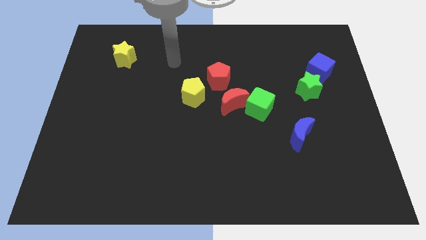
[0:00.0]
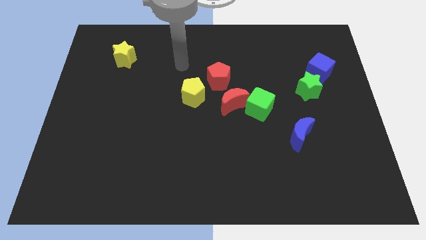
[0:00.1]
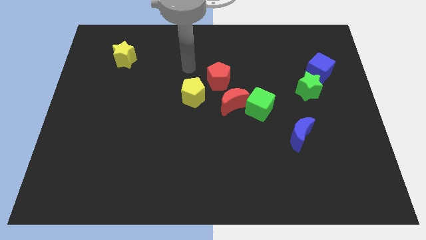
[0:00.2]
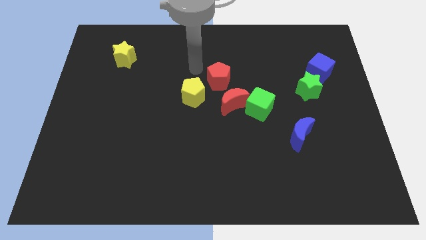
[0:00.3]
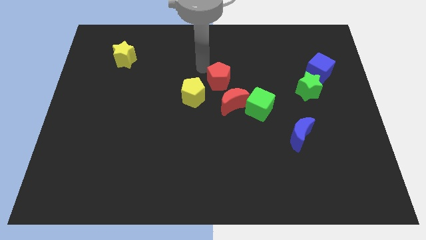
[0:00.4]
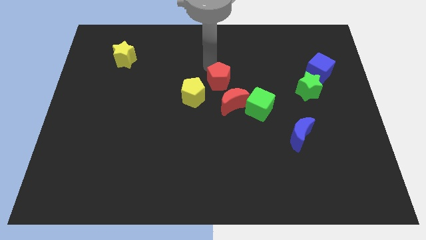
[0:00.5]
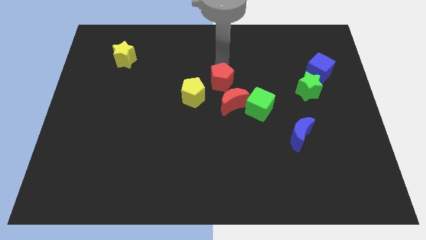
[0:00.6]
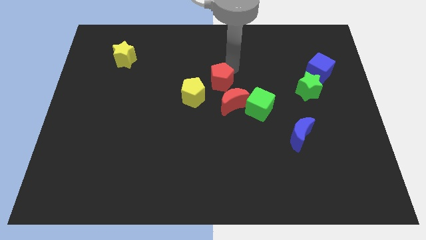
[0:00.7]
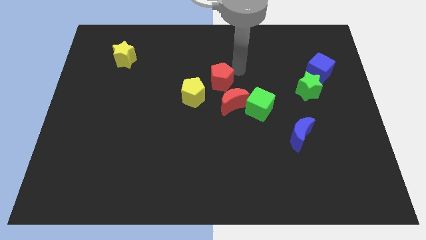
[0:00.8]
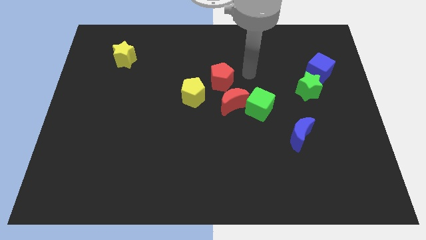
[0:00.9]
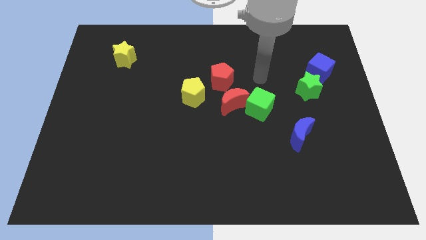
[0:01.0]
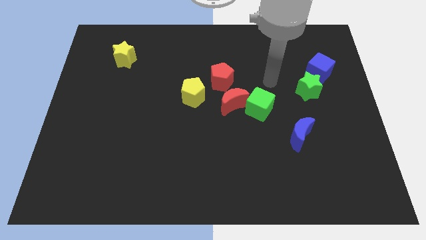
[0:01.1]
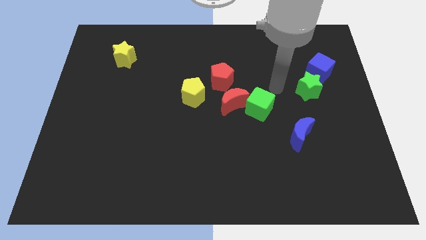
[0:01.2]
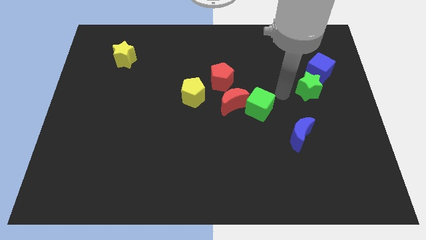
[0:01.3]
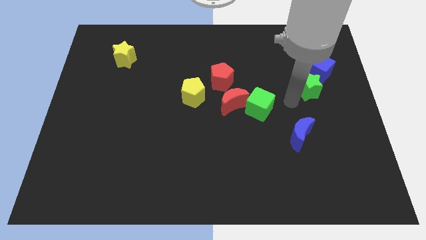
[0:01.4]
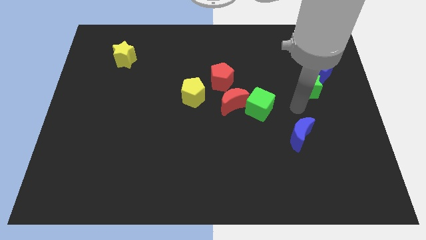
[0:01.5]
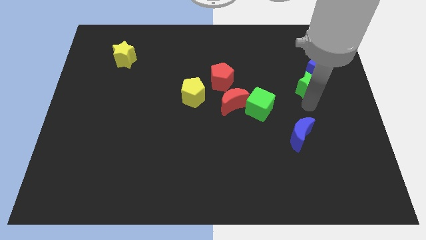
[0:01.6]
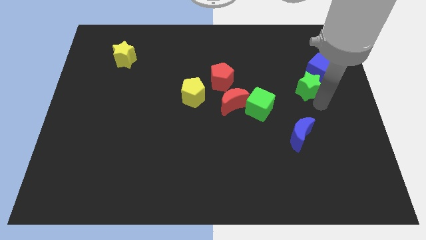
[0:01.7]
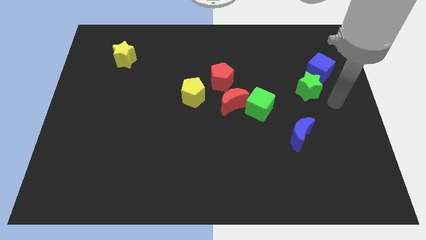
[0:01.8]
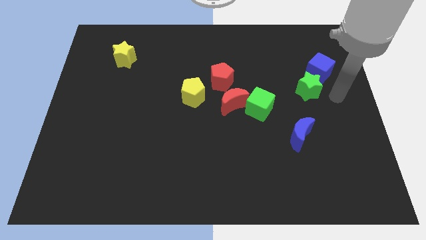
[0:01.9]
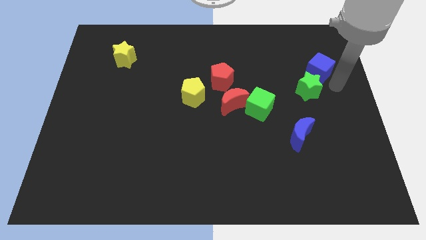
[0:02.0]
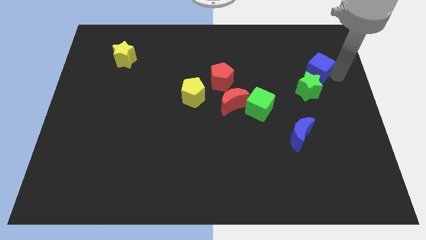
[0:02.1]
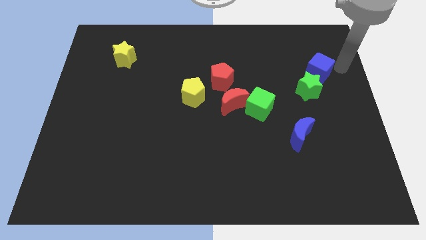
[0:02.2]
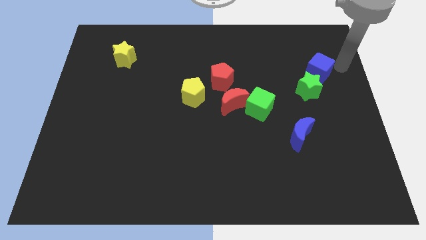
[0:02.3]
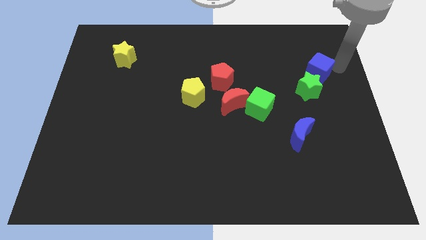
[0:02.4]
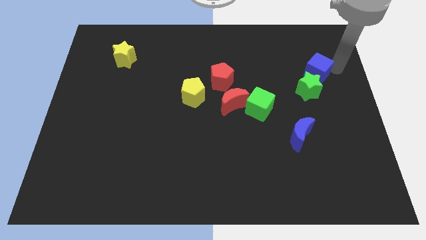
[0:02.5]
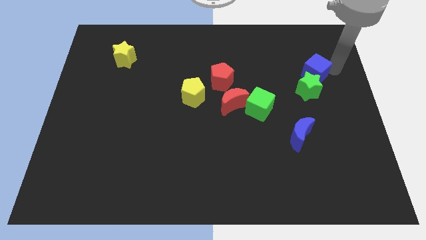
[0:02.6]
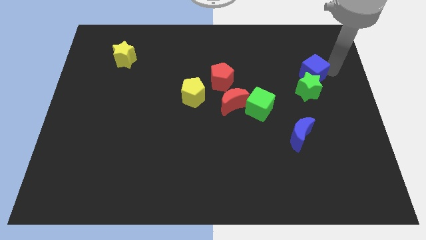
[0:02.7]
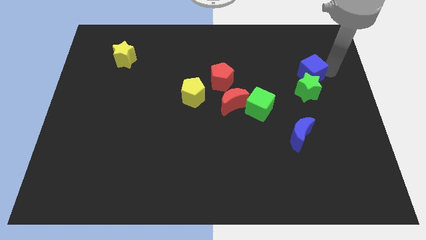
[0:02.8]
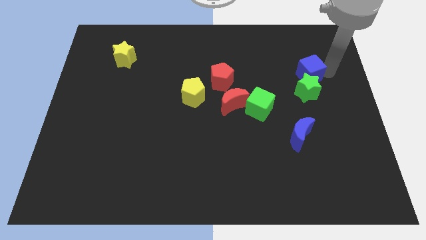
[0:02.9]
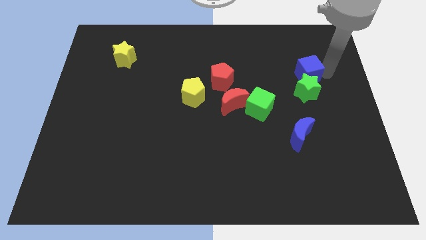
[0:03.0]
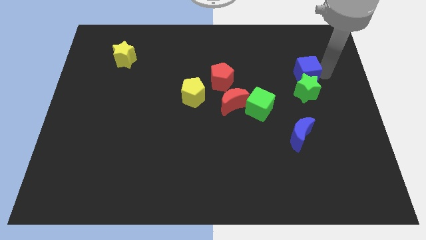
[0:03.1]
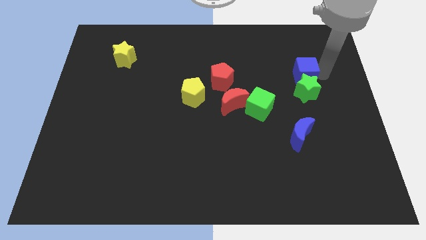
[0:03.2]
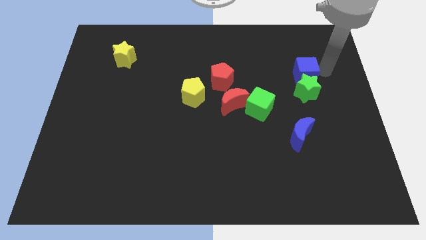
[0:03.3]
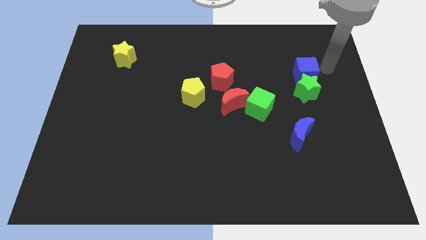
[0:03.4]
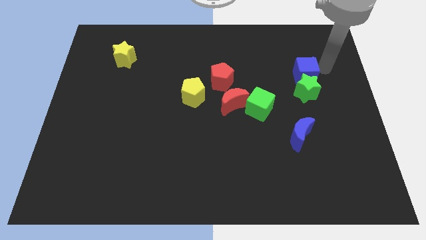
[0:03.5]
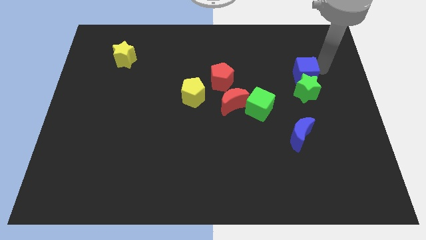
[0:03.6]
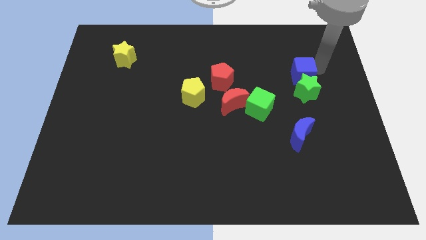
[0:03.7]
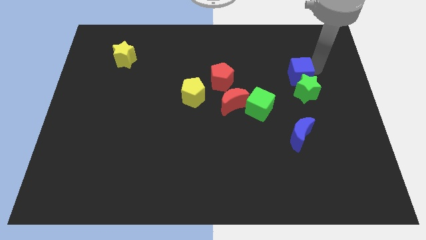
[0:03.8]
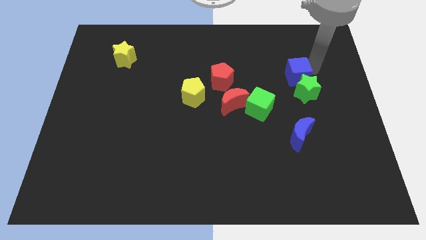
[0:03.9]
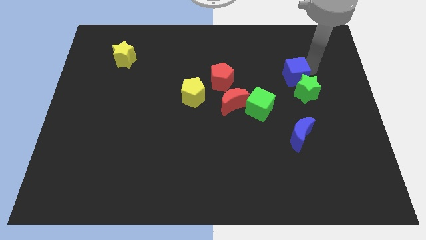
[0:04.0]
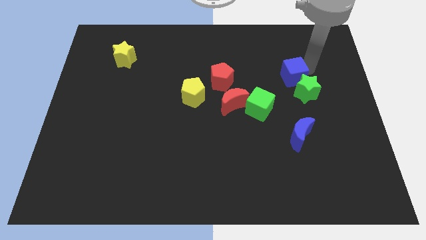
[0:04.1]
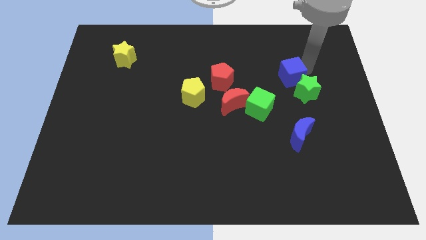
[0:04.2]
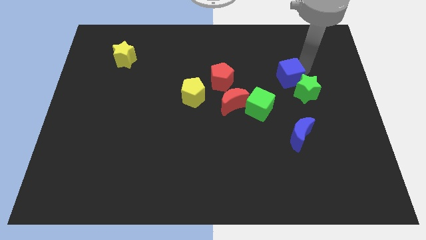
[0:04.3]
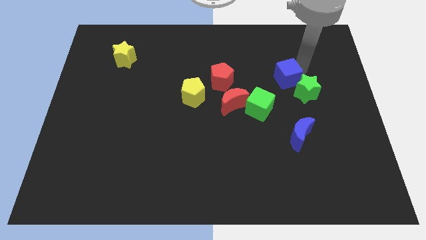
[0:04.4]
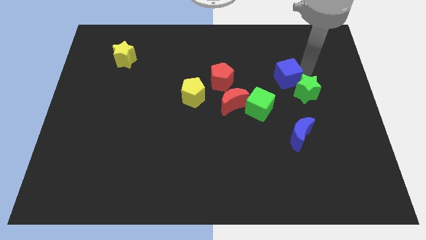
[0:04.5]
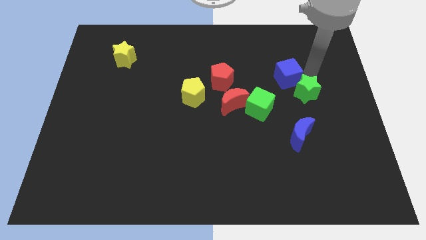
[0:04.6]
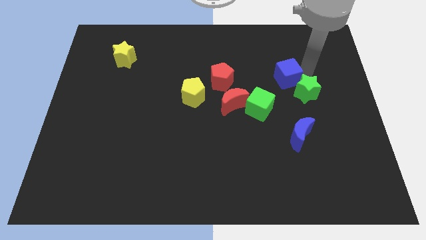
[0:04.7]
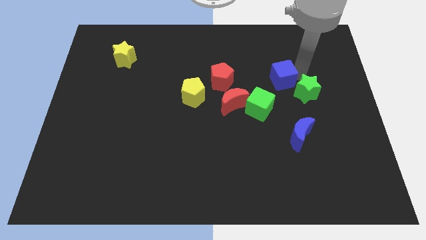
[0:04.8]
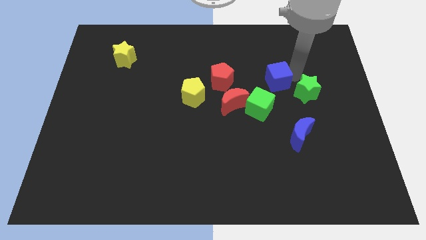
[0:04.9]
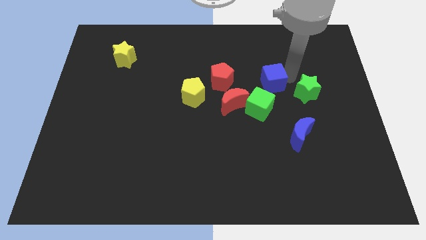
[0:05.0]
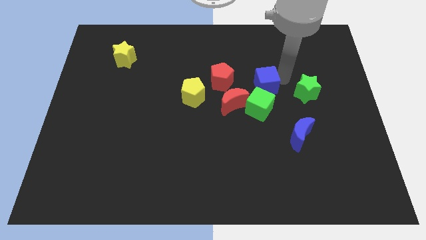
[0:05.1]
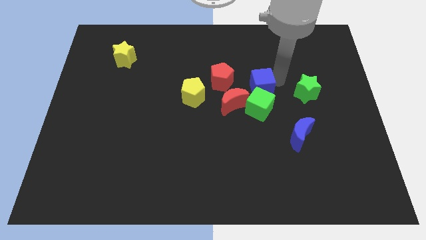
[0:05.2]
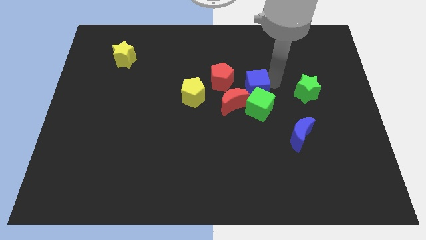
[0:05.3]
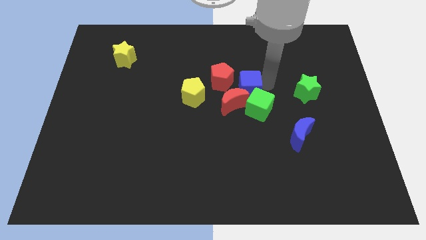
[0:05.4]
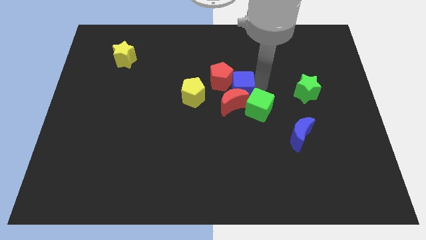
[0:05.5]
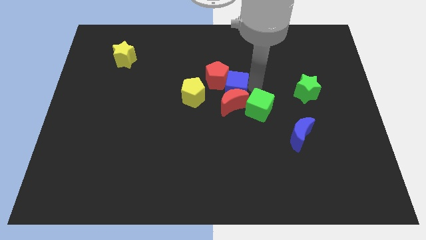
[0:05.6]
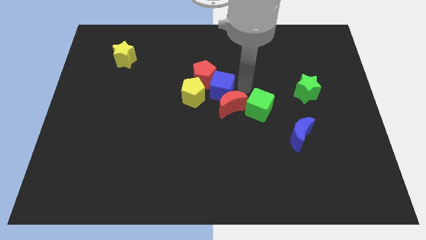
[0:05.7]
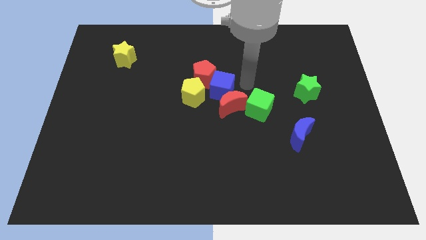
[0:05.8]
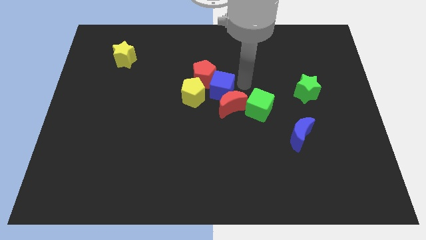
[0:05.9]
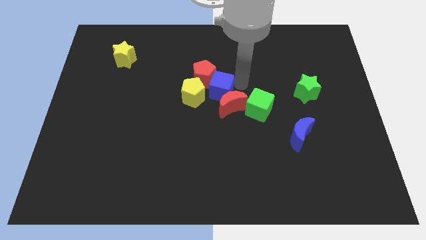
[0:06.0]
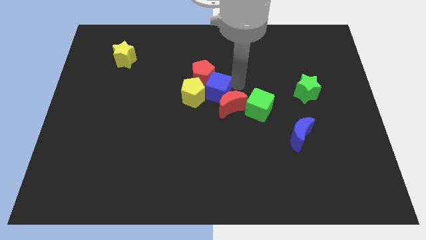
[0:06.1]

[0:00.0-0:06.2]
move the blue cube next to the yellow pentagon

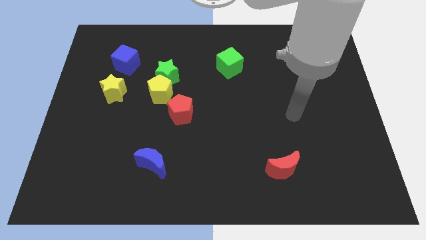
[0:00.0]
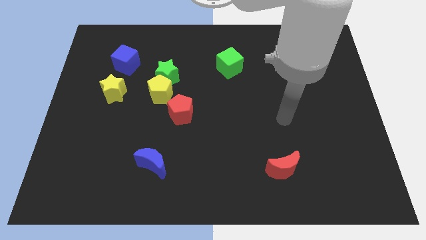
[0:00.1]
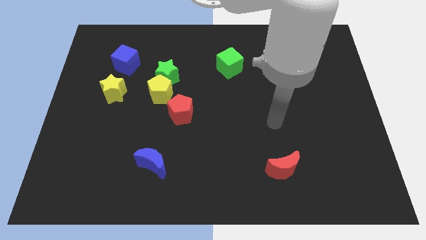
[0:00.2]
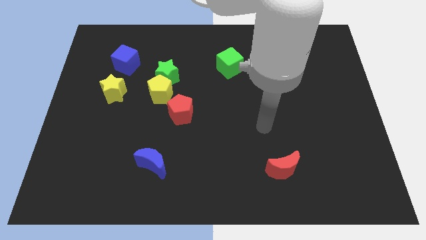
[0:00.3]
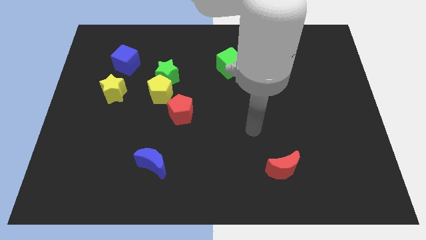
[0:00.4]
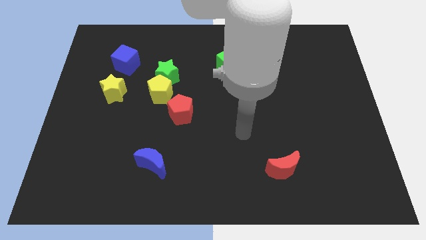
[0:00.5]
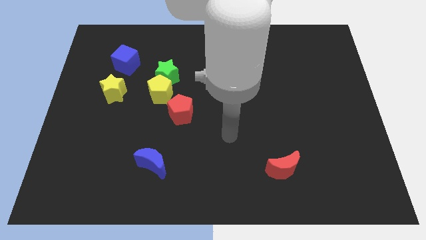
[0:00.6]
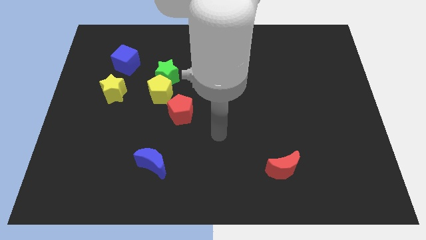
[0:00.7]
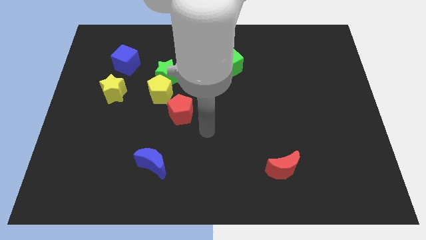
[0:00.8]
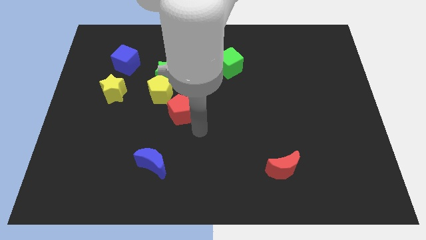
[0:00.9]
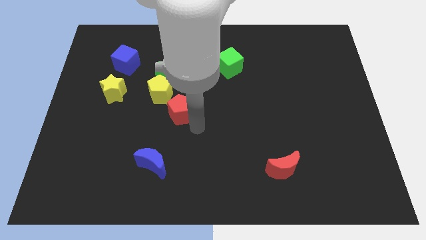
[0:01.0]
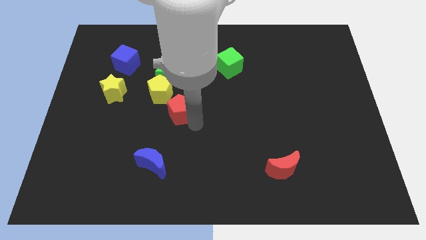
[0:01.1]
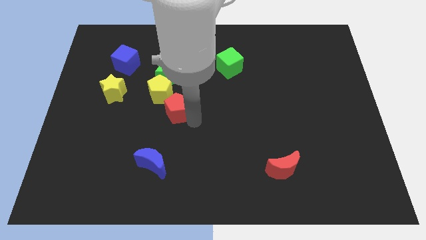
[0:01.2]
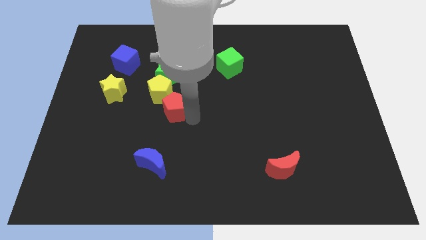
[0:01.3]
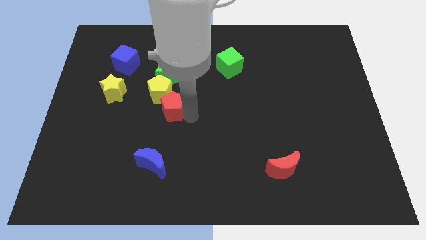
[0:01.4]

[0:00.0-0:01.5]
push the red pentagon close to the yellow pentagon
